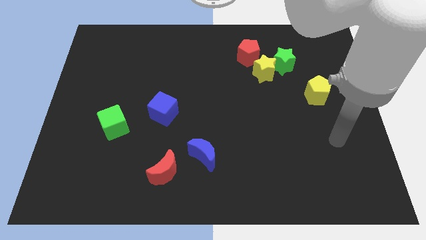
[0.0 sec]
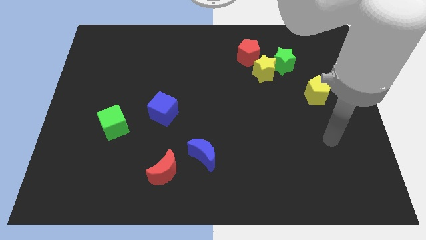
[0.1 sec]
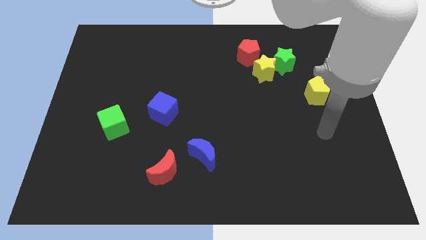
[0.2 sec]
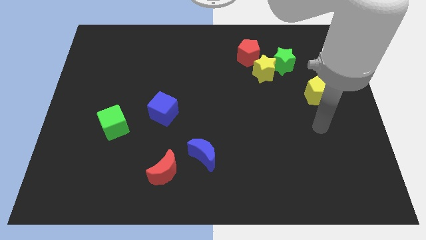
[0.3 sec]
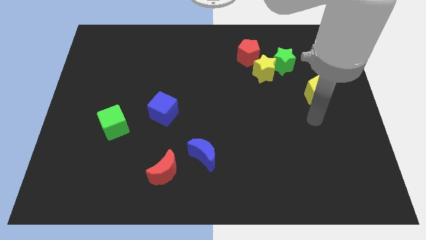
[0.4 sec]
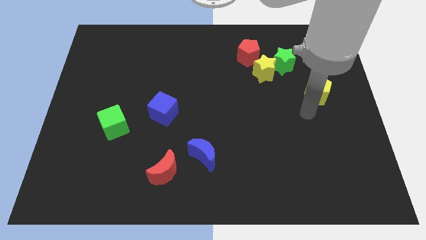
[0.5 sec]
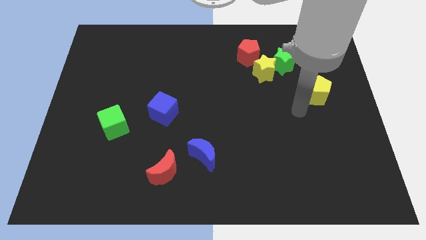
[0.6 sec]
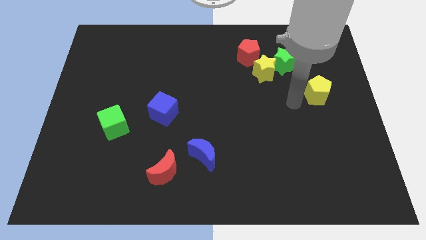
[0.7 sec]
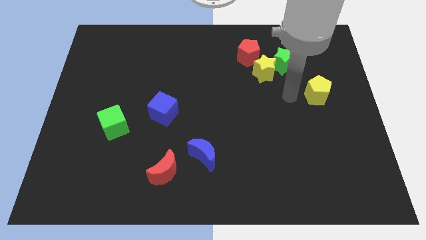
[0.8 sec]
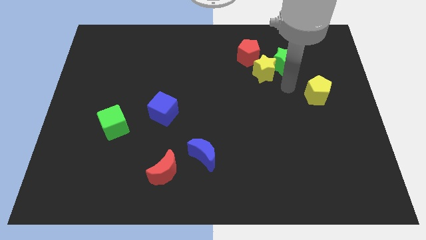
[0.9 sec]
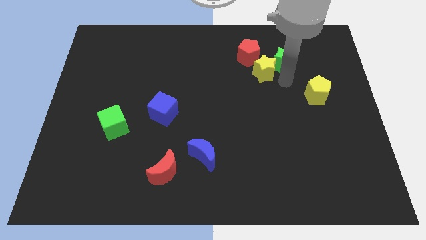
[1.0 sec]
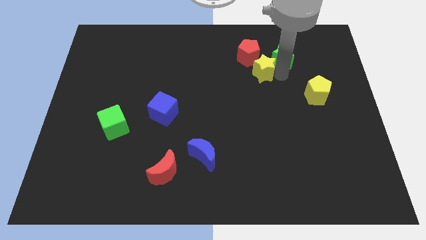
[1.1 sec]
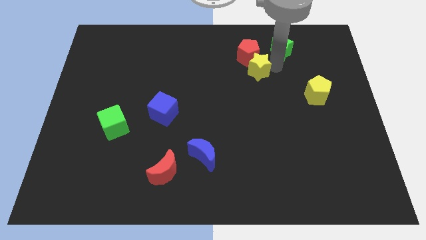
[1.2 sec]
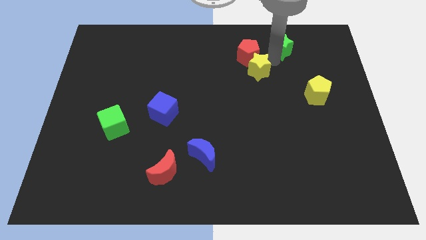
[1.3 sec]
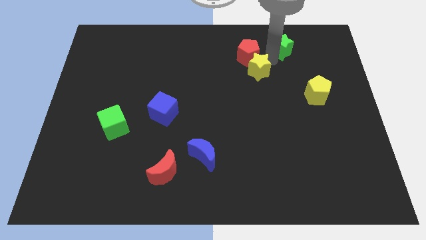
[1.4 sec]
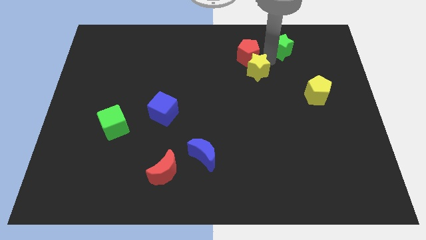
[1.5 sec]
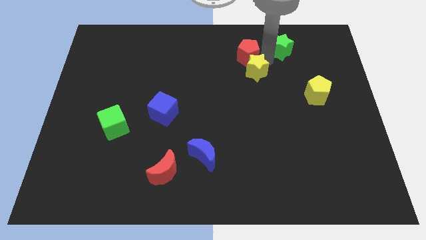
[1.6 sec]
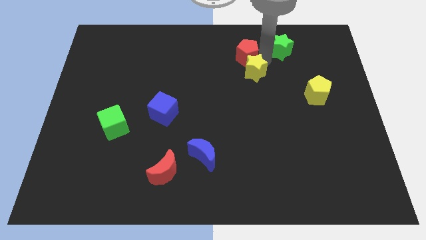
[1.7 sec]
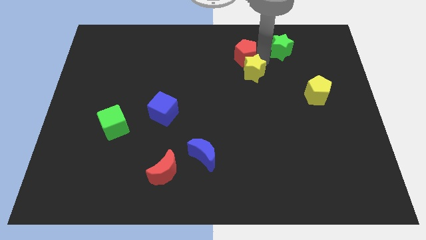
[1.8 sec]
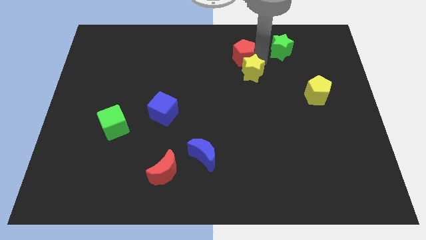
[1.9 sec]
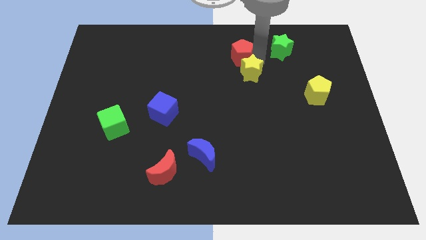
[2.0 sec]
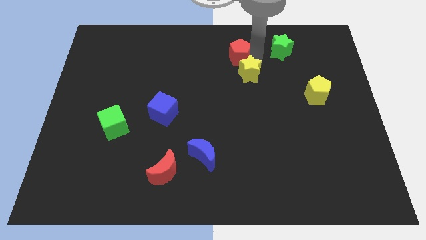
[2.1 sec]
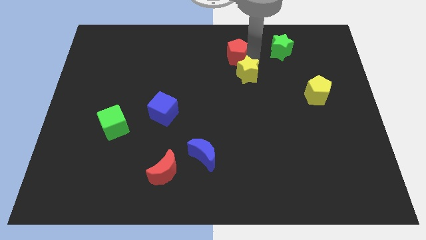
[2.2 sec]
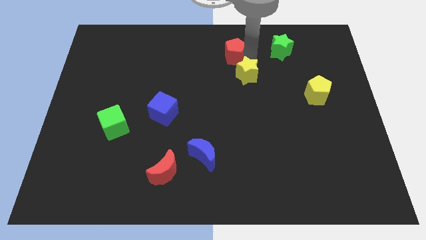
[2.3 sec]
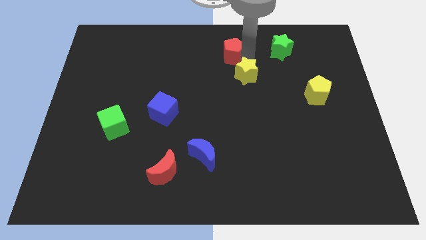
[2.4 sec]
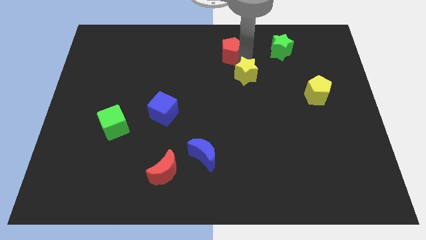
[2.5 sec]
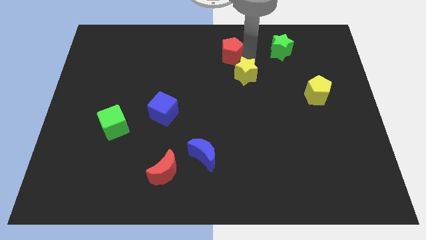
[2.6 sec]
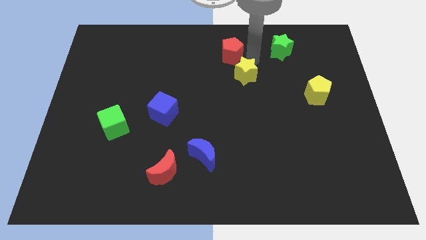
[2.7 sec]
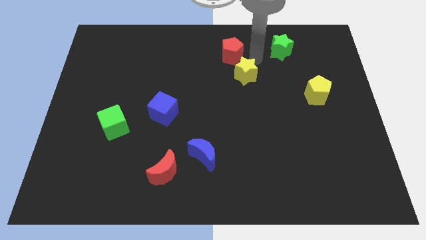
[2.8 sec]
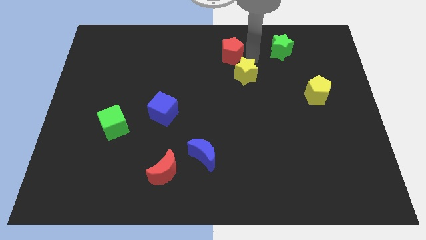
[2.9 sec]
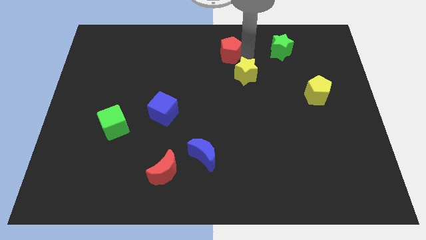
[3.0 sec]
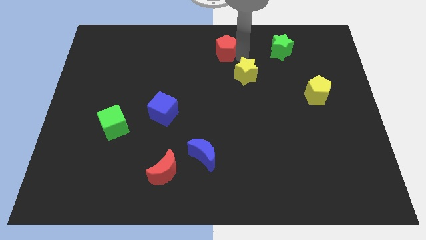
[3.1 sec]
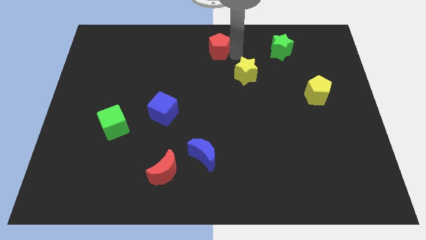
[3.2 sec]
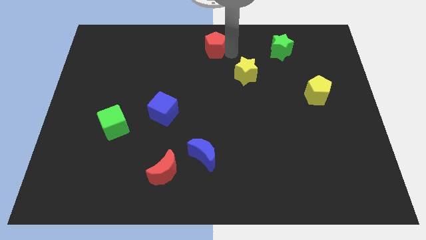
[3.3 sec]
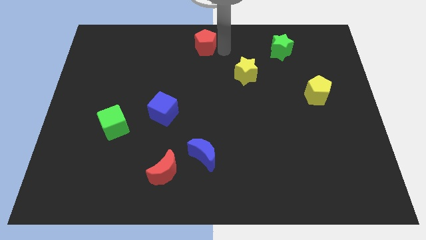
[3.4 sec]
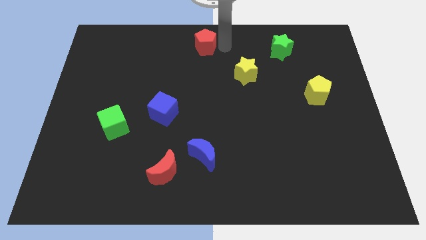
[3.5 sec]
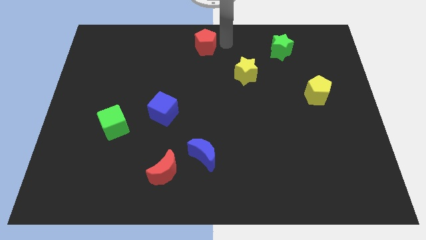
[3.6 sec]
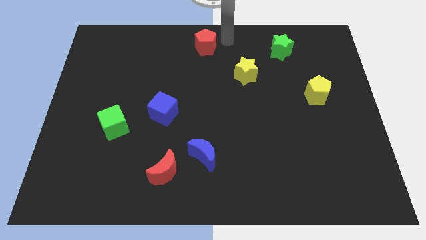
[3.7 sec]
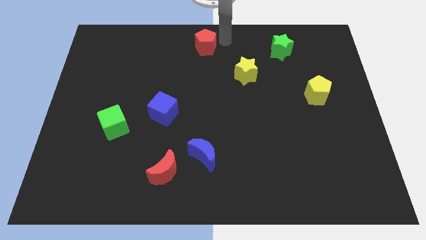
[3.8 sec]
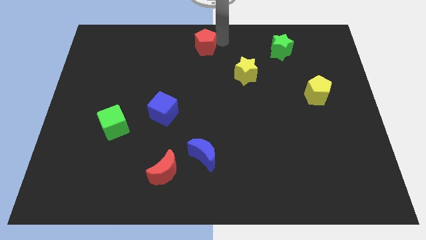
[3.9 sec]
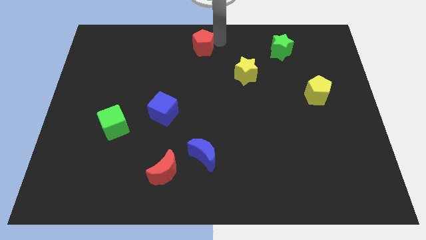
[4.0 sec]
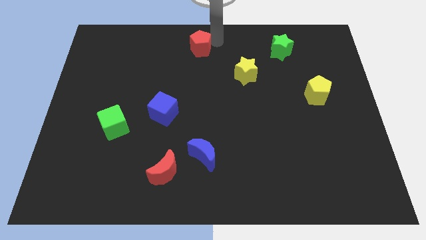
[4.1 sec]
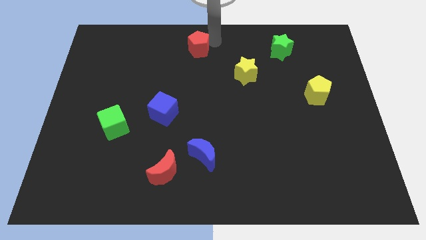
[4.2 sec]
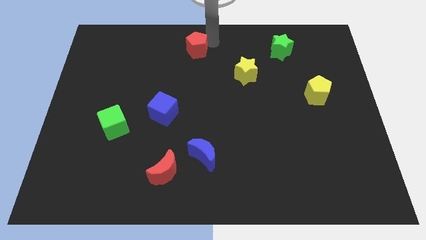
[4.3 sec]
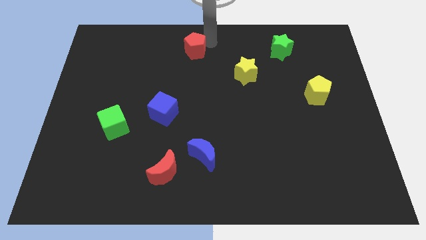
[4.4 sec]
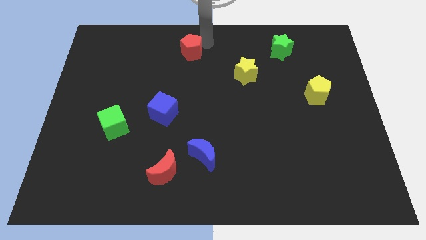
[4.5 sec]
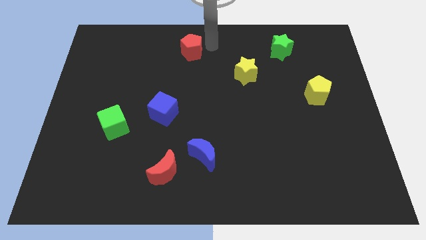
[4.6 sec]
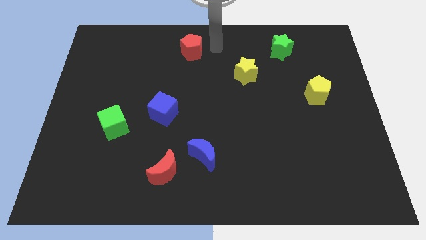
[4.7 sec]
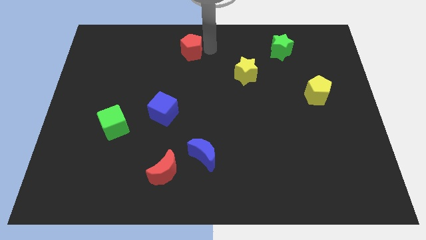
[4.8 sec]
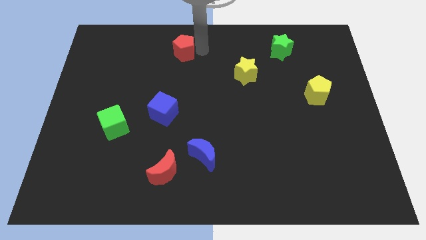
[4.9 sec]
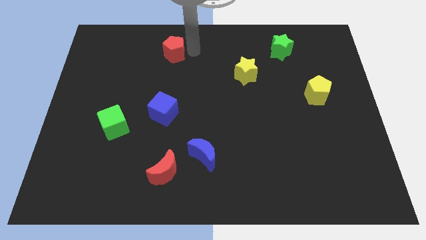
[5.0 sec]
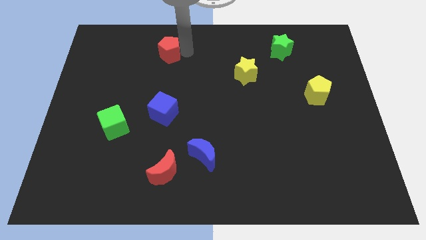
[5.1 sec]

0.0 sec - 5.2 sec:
slide the red pentagon to the left

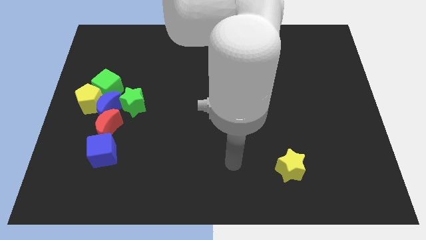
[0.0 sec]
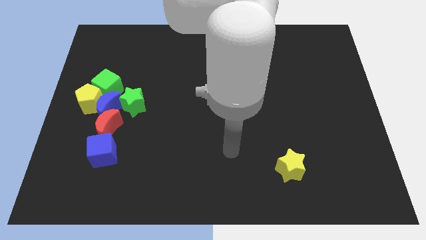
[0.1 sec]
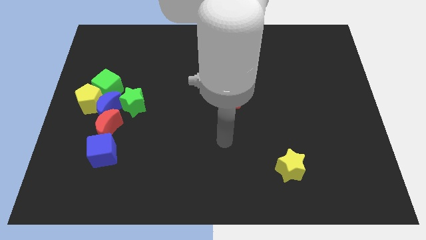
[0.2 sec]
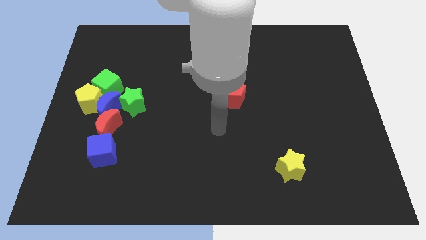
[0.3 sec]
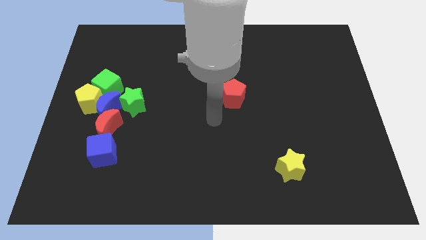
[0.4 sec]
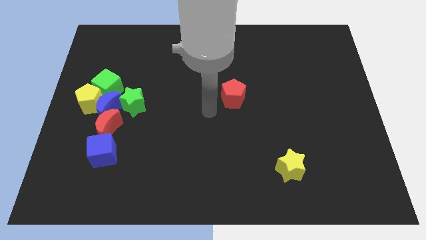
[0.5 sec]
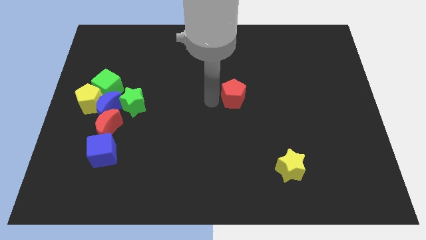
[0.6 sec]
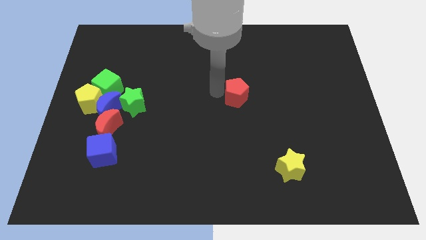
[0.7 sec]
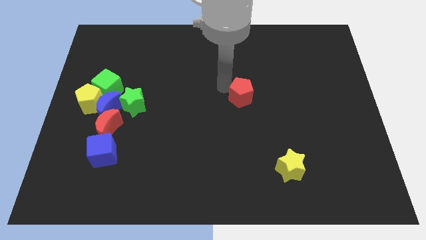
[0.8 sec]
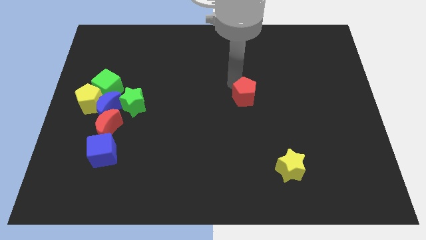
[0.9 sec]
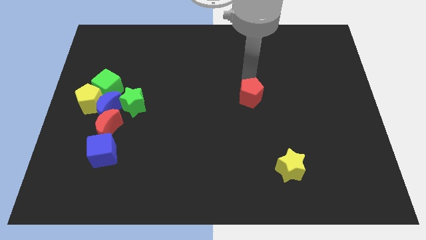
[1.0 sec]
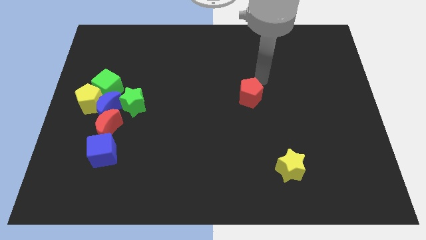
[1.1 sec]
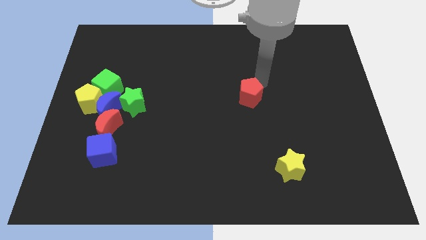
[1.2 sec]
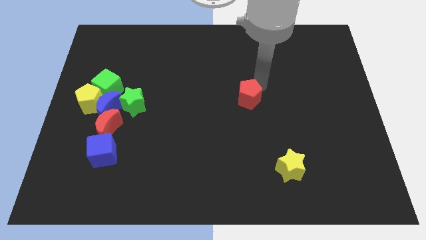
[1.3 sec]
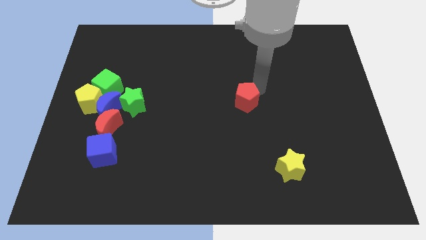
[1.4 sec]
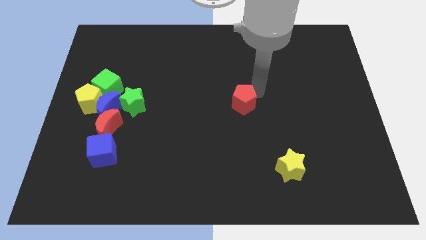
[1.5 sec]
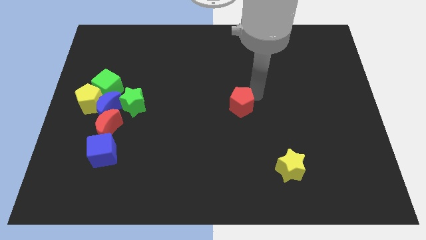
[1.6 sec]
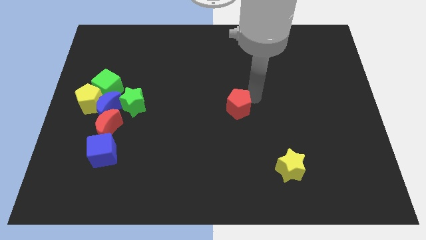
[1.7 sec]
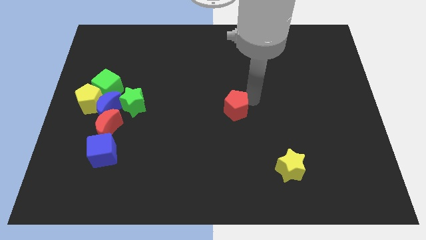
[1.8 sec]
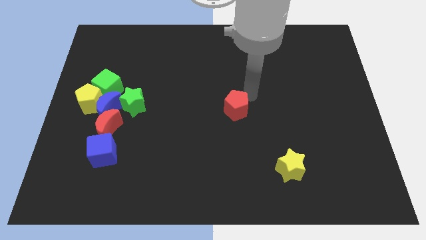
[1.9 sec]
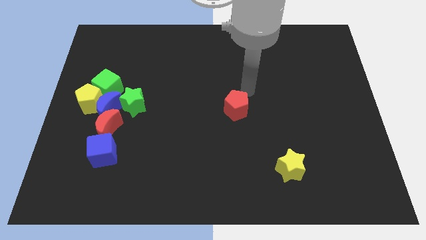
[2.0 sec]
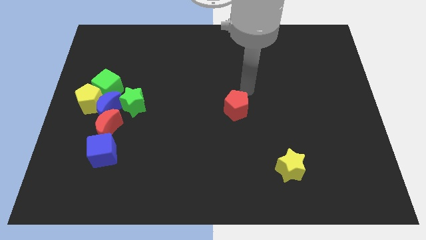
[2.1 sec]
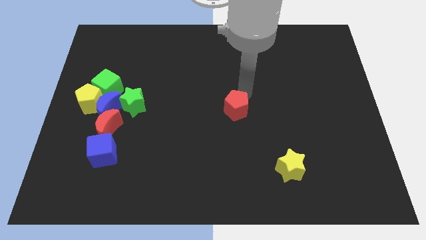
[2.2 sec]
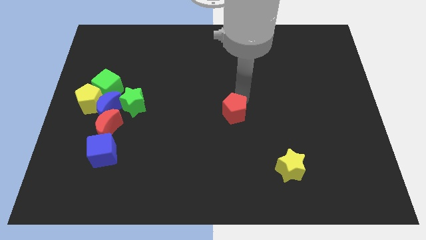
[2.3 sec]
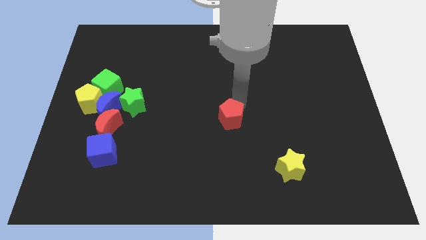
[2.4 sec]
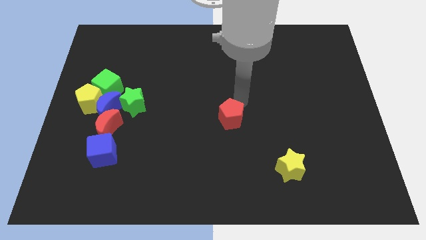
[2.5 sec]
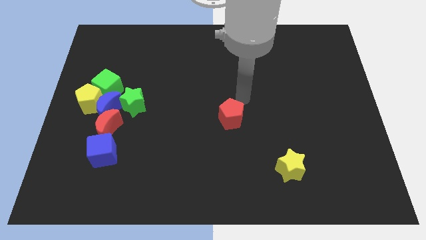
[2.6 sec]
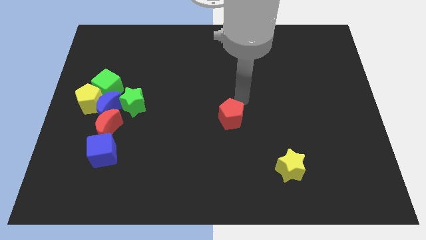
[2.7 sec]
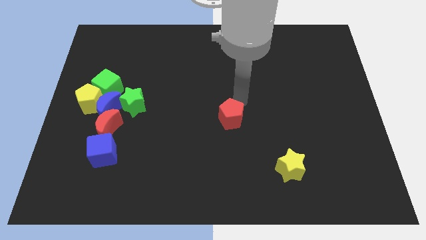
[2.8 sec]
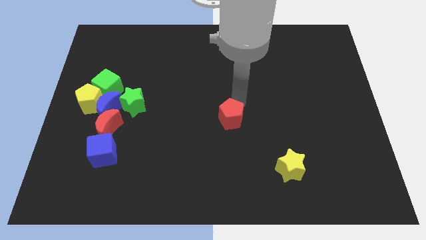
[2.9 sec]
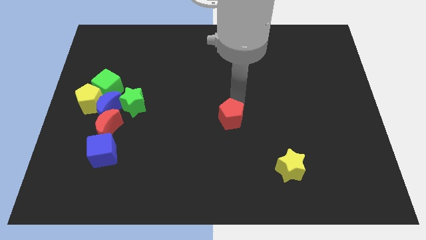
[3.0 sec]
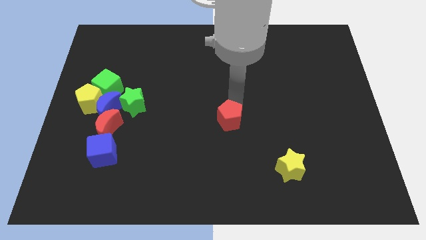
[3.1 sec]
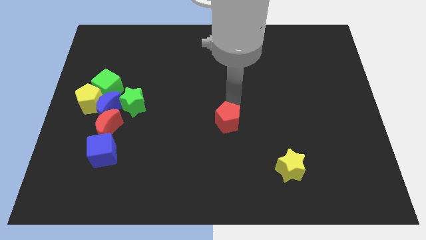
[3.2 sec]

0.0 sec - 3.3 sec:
move the red pentagon down somewhat
